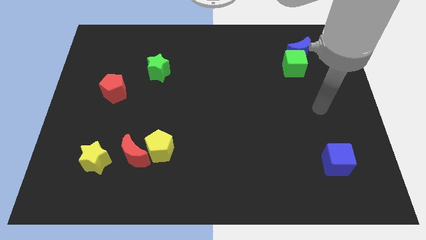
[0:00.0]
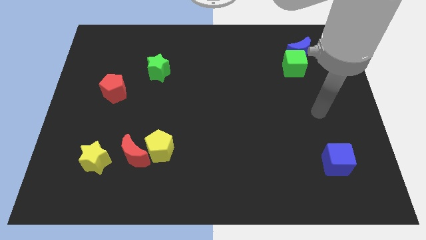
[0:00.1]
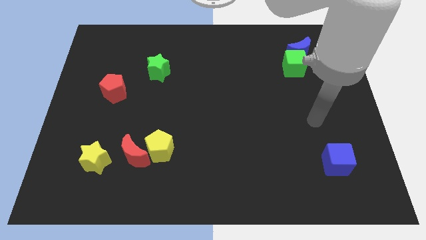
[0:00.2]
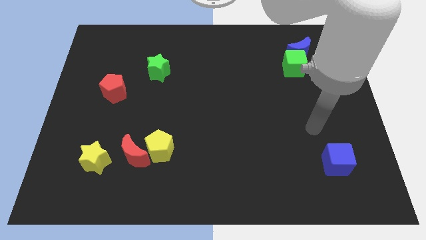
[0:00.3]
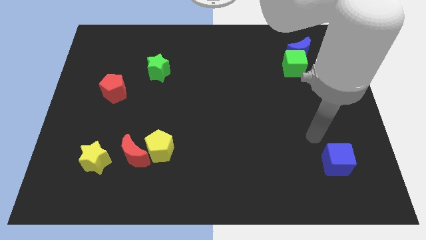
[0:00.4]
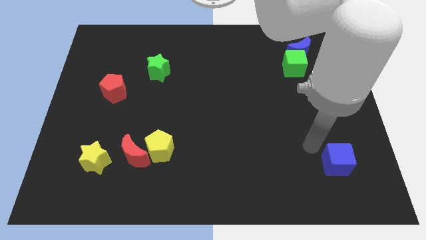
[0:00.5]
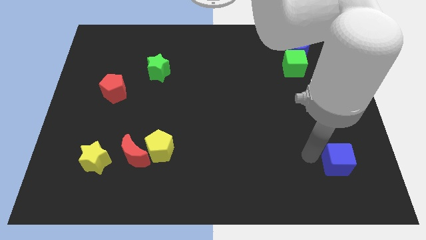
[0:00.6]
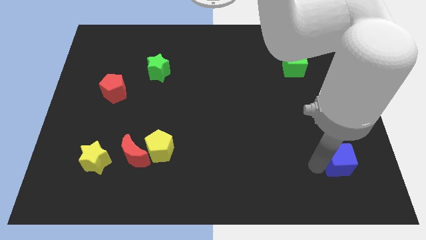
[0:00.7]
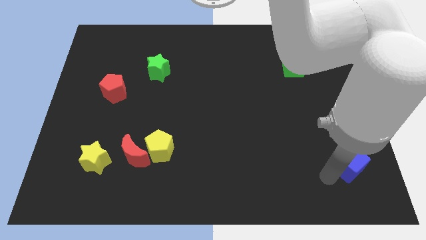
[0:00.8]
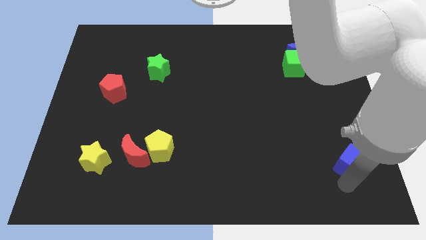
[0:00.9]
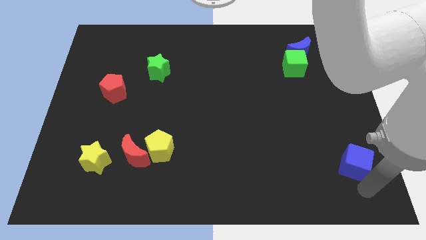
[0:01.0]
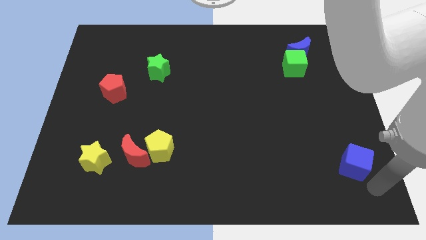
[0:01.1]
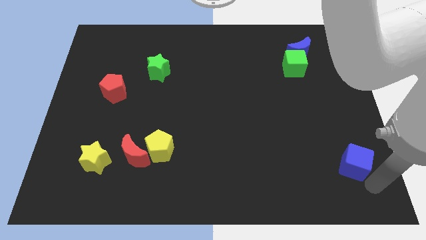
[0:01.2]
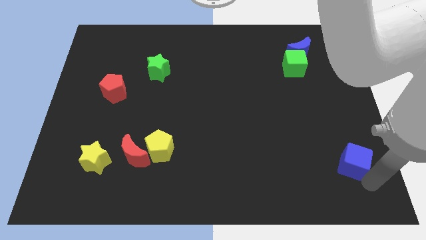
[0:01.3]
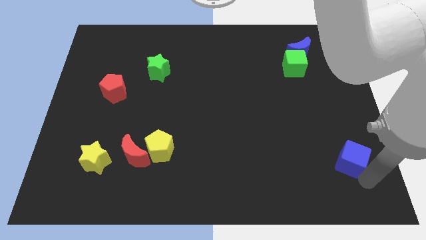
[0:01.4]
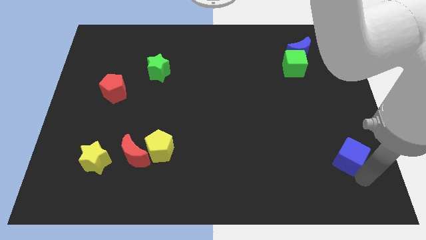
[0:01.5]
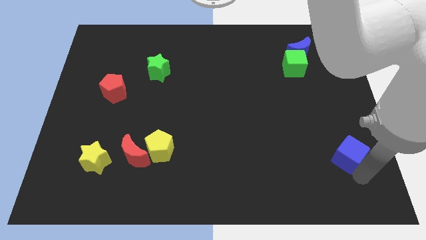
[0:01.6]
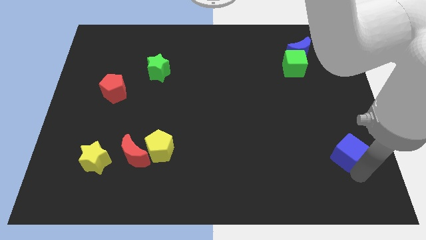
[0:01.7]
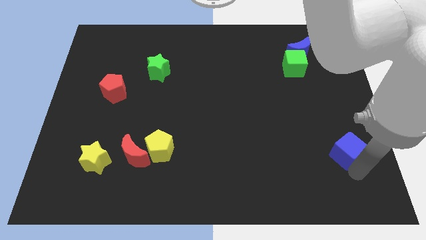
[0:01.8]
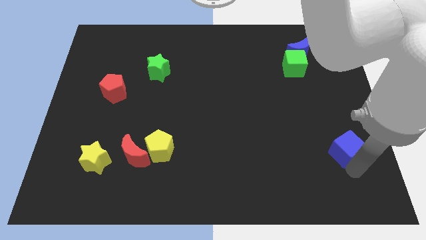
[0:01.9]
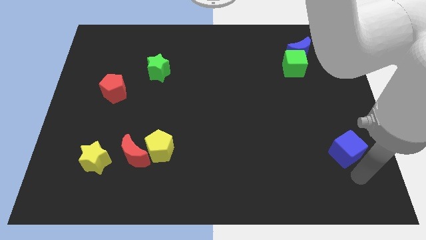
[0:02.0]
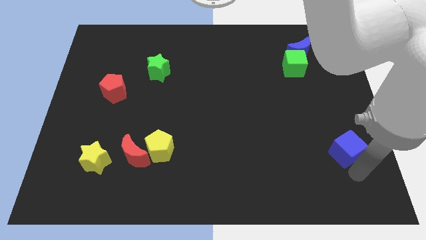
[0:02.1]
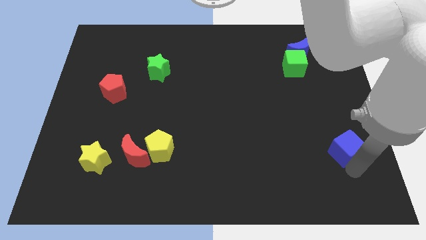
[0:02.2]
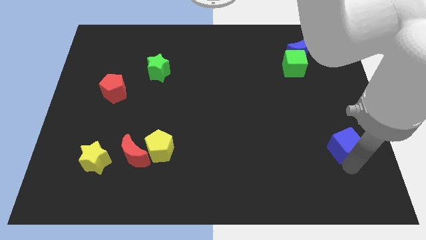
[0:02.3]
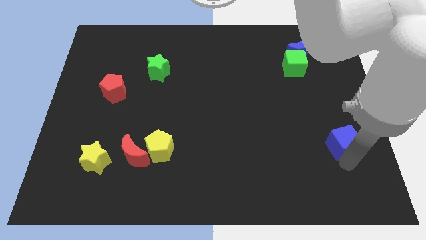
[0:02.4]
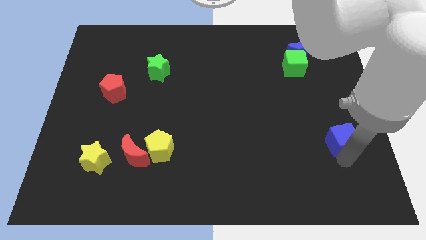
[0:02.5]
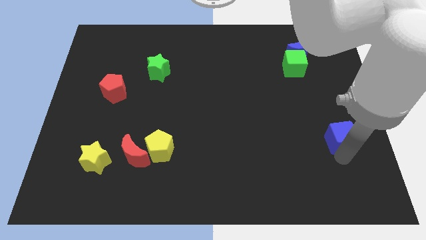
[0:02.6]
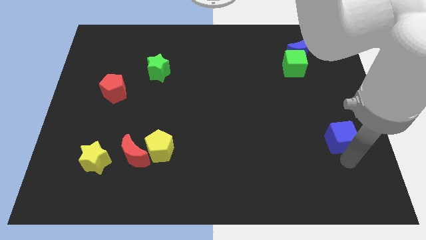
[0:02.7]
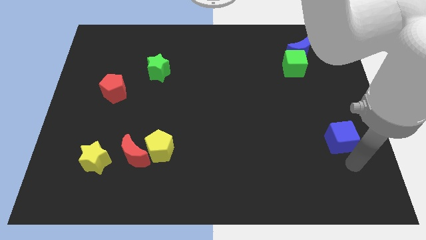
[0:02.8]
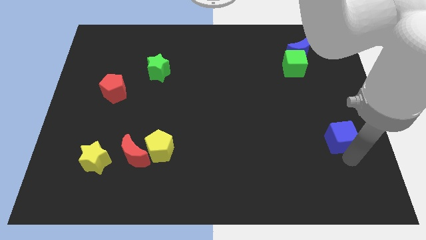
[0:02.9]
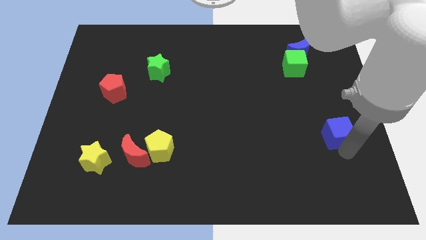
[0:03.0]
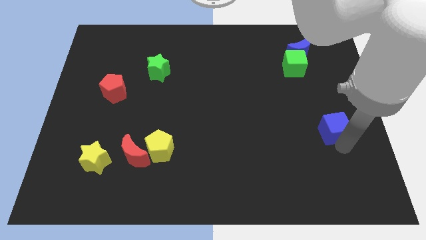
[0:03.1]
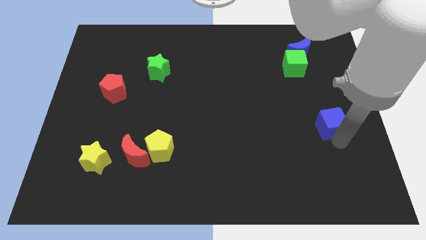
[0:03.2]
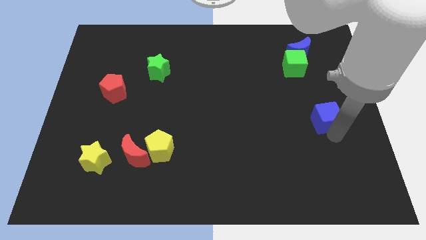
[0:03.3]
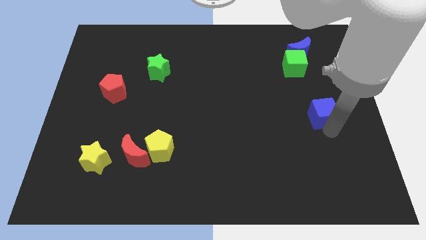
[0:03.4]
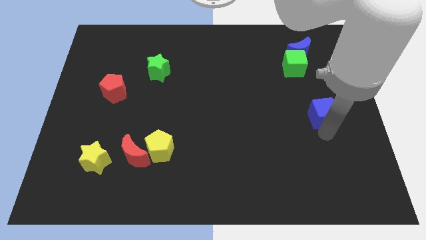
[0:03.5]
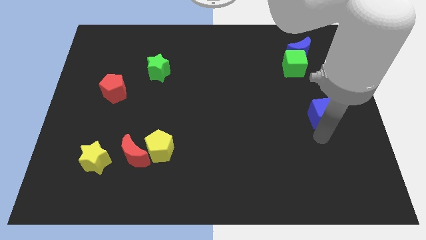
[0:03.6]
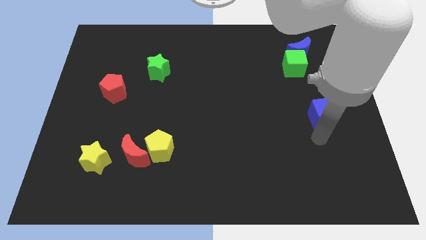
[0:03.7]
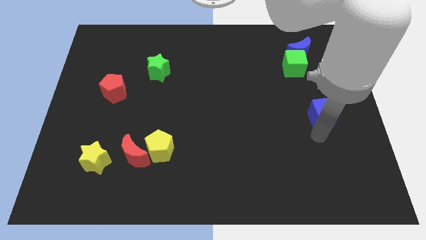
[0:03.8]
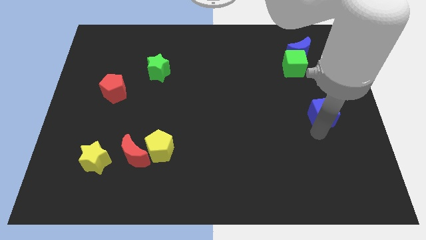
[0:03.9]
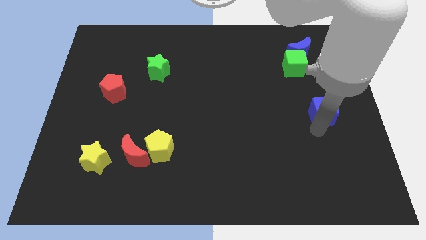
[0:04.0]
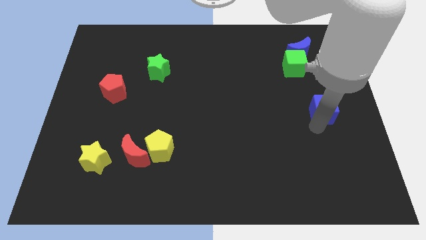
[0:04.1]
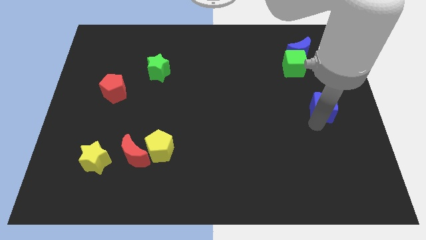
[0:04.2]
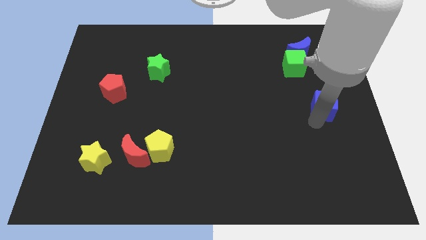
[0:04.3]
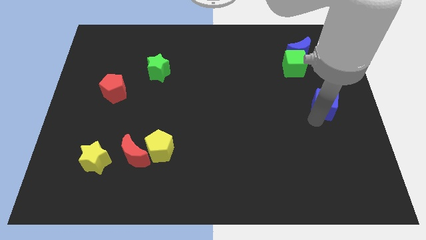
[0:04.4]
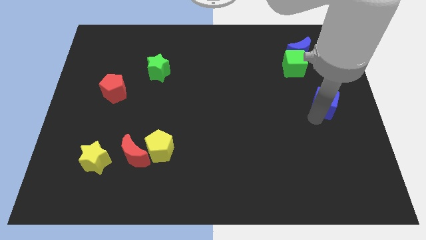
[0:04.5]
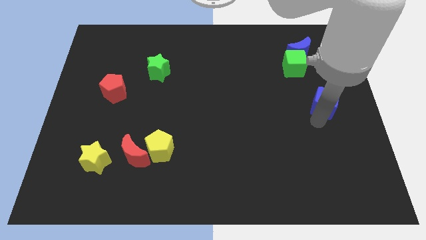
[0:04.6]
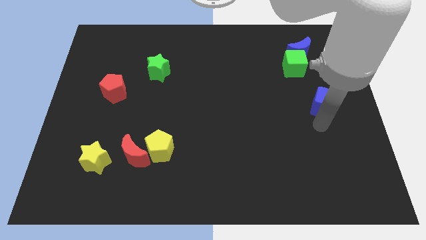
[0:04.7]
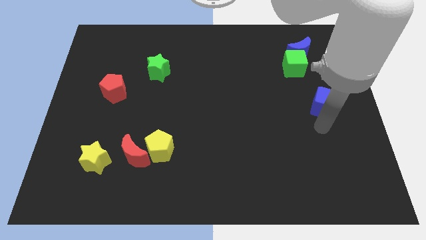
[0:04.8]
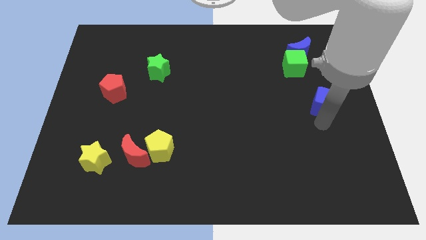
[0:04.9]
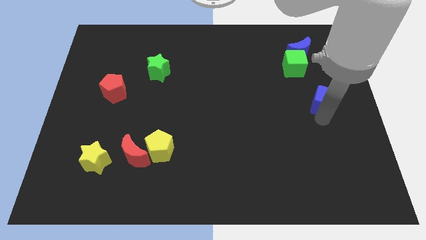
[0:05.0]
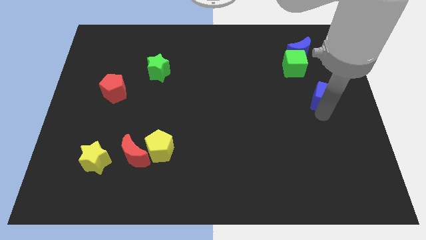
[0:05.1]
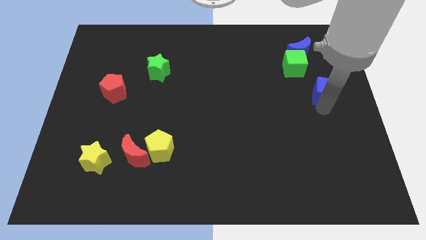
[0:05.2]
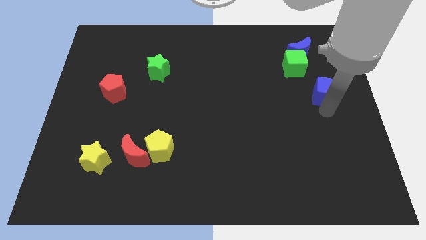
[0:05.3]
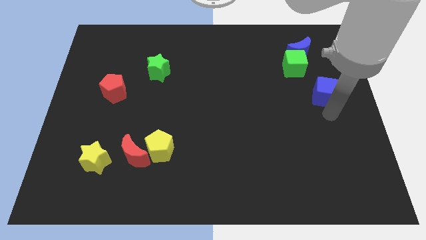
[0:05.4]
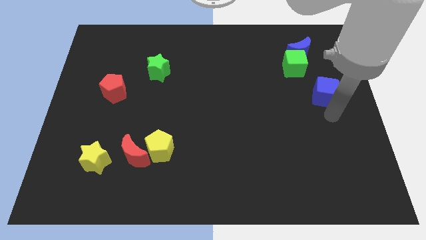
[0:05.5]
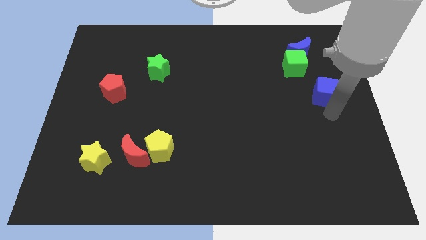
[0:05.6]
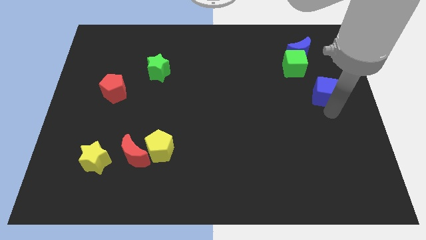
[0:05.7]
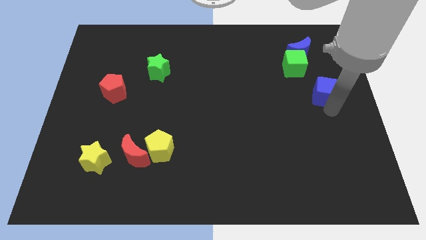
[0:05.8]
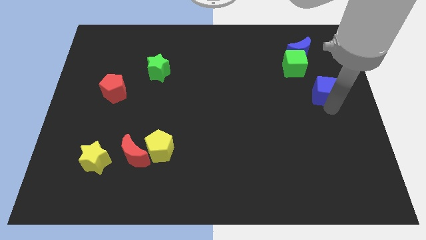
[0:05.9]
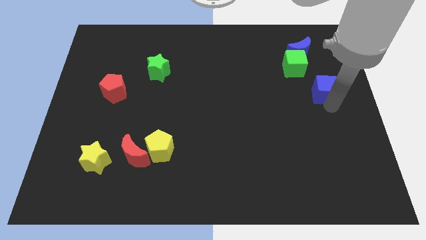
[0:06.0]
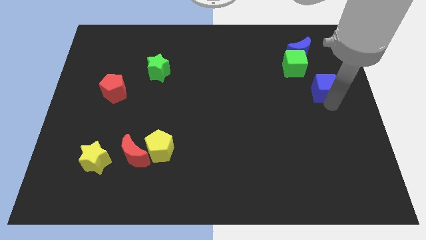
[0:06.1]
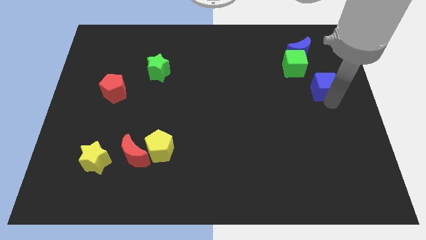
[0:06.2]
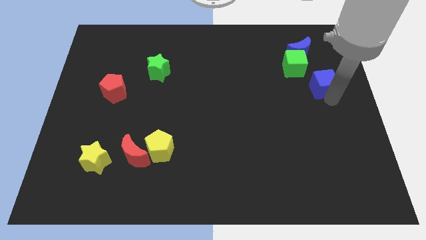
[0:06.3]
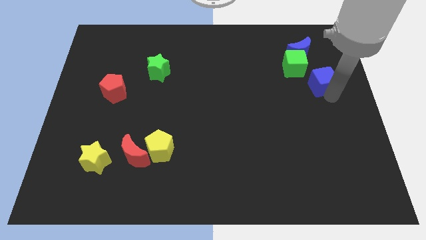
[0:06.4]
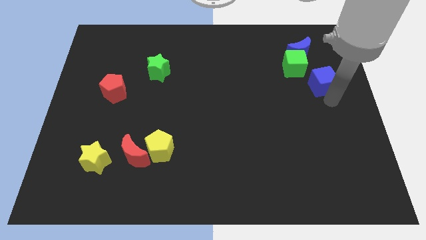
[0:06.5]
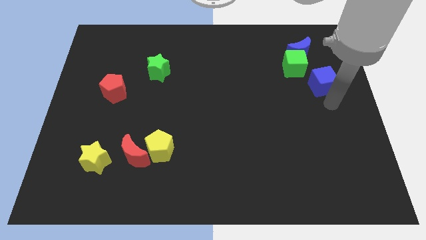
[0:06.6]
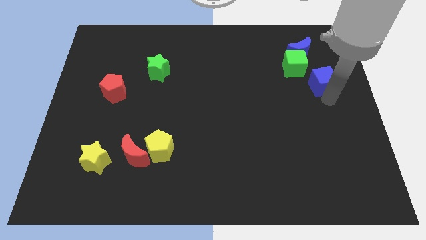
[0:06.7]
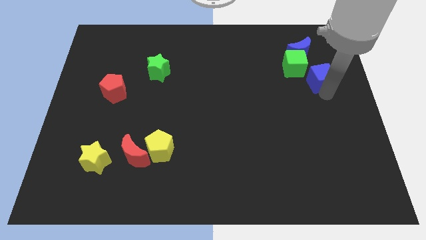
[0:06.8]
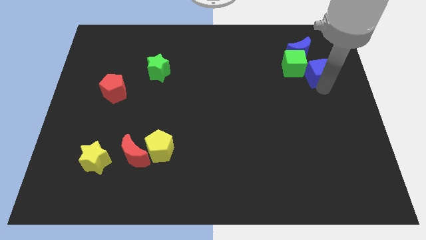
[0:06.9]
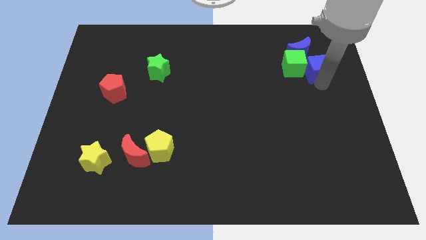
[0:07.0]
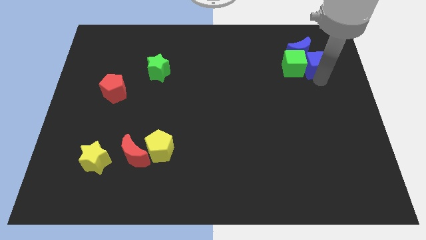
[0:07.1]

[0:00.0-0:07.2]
put the blue cube close to the blue moon

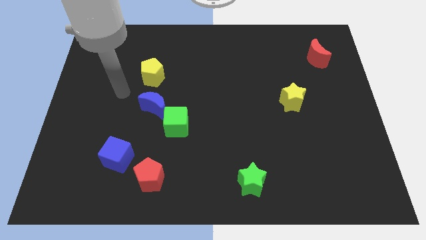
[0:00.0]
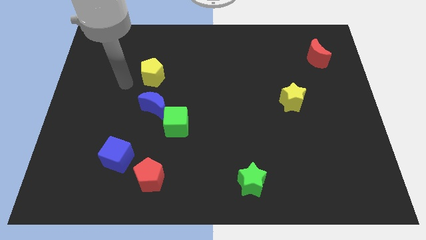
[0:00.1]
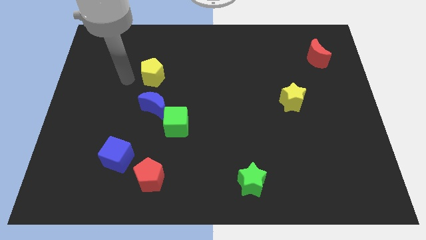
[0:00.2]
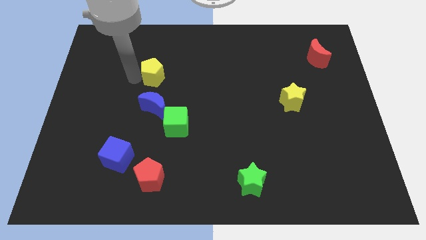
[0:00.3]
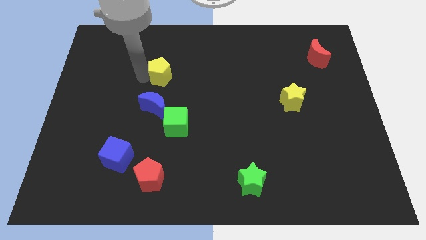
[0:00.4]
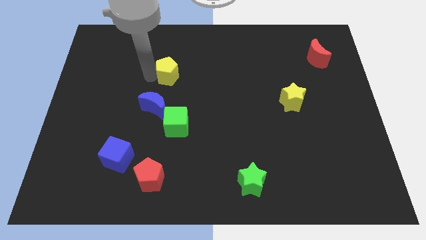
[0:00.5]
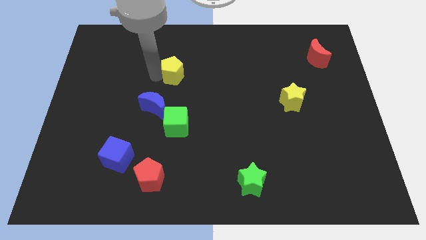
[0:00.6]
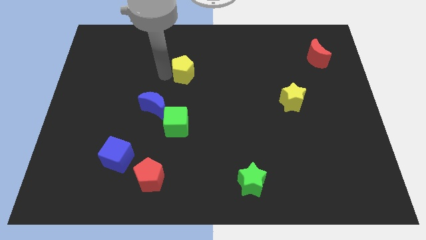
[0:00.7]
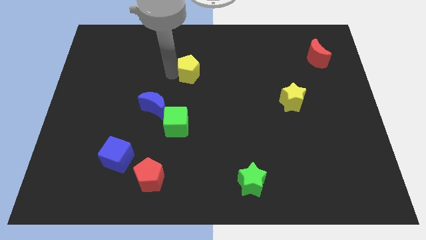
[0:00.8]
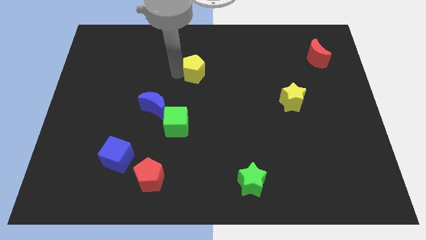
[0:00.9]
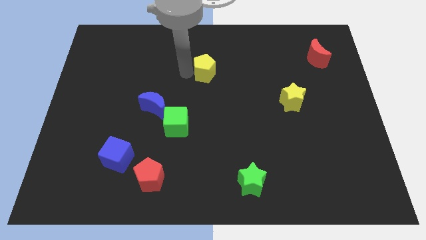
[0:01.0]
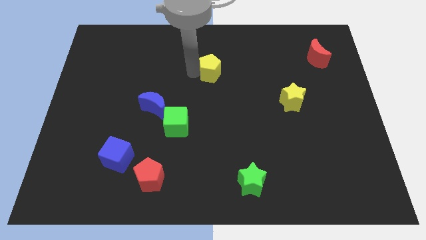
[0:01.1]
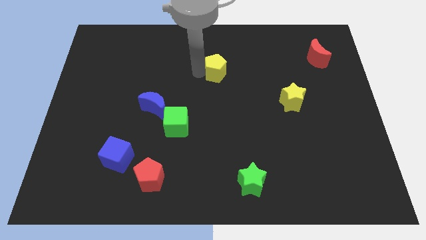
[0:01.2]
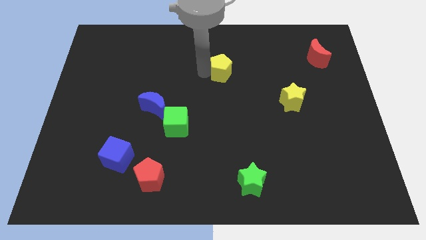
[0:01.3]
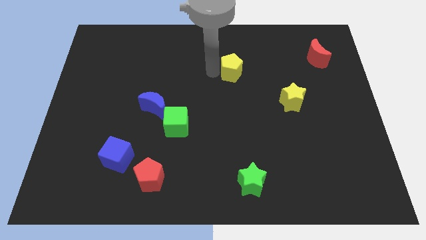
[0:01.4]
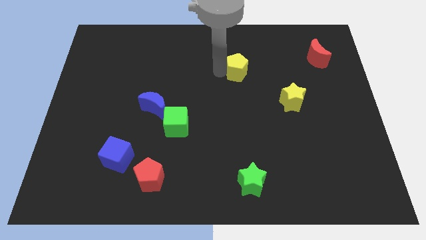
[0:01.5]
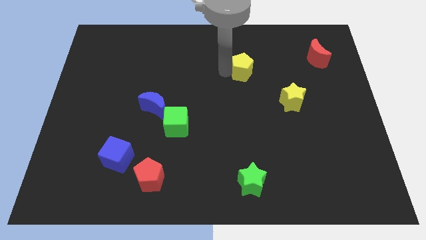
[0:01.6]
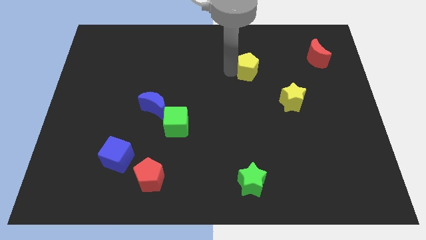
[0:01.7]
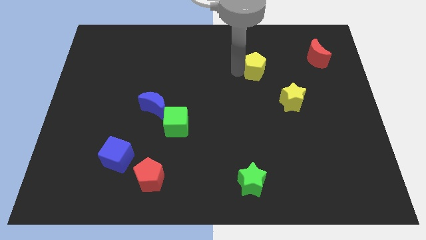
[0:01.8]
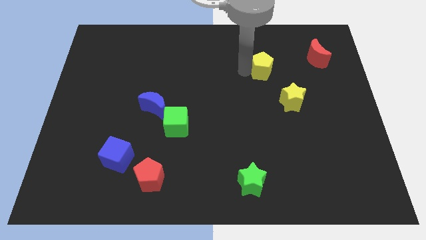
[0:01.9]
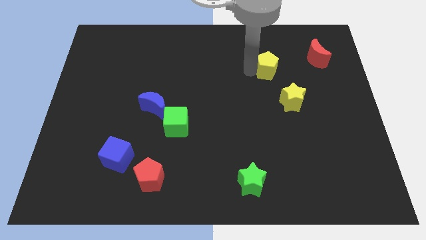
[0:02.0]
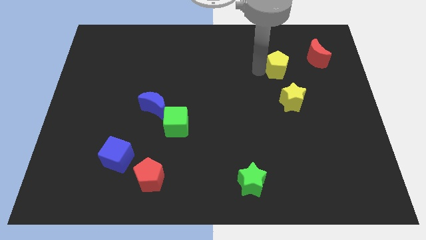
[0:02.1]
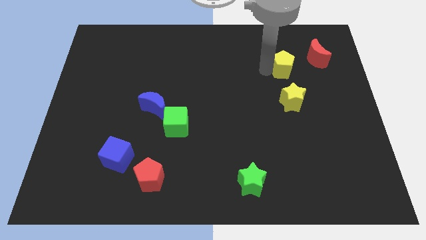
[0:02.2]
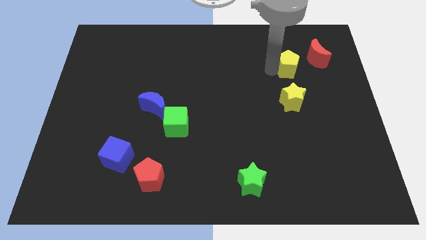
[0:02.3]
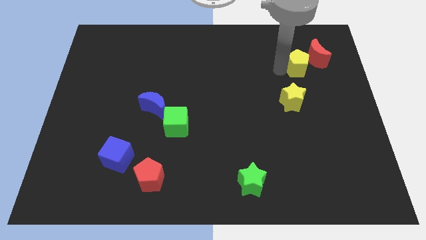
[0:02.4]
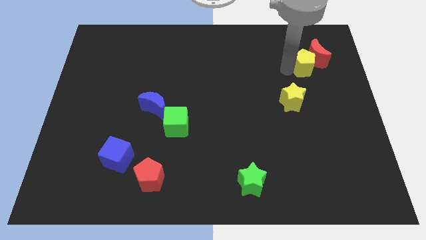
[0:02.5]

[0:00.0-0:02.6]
slide the yellow pentagon close to the red moon
